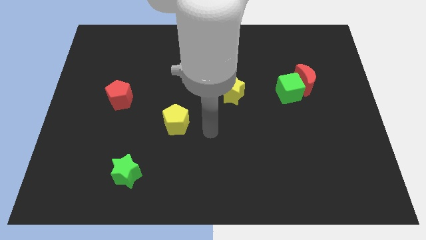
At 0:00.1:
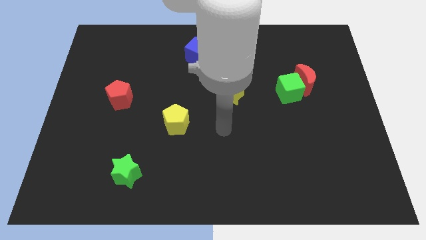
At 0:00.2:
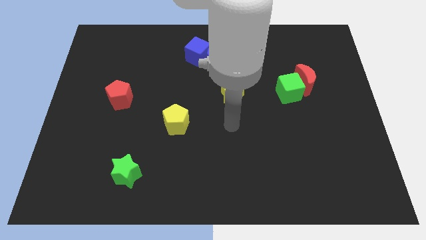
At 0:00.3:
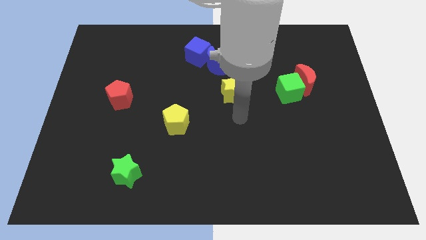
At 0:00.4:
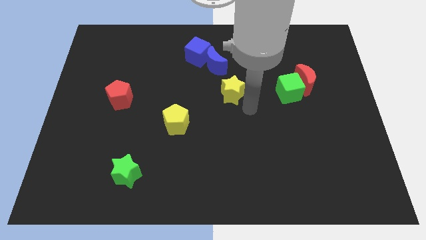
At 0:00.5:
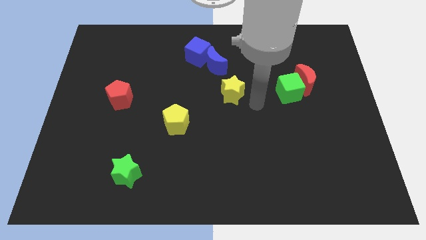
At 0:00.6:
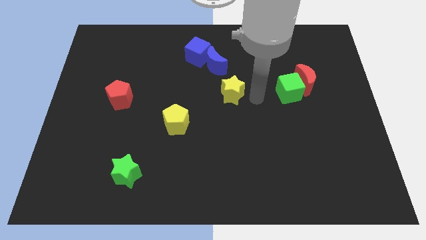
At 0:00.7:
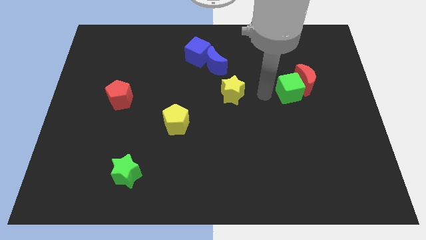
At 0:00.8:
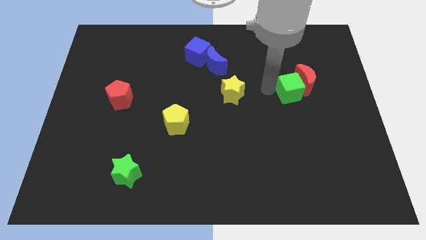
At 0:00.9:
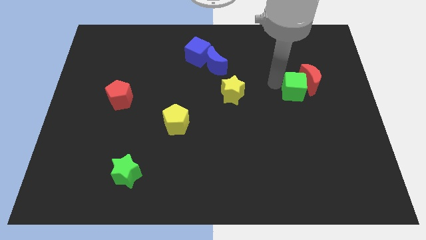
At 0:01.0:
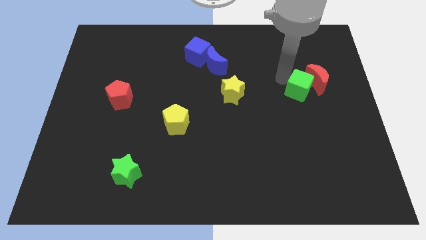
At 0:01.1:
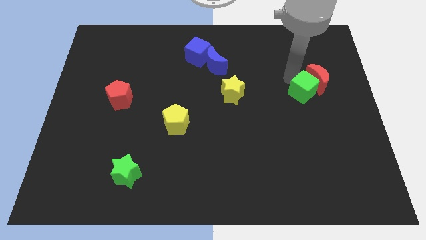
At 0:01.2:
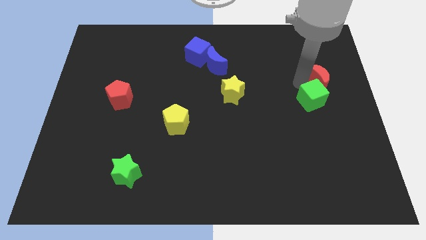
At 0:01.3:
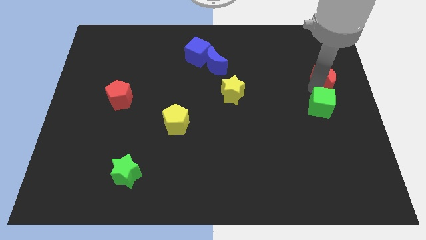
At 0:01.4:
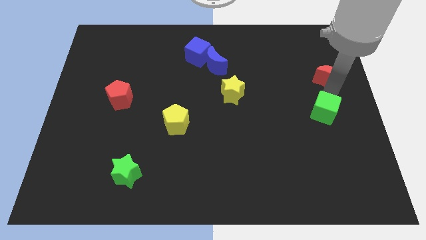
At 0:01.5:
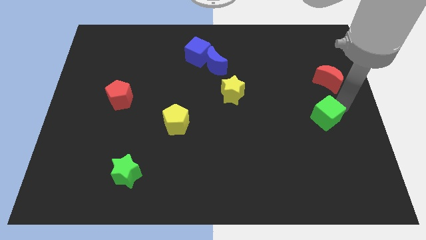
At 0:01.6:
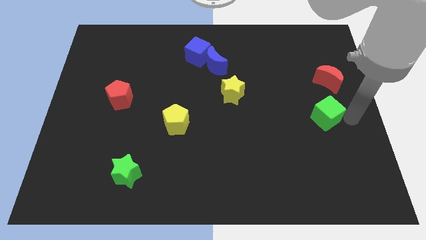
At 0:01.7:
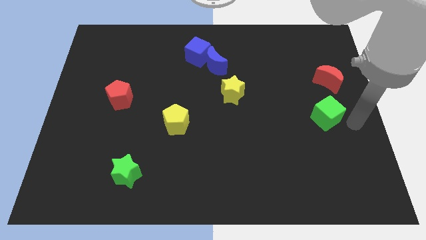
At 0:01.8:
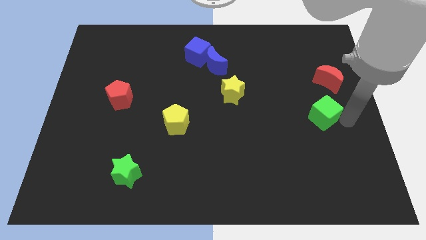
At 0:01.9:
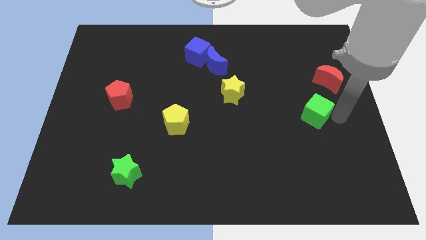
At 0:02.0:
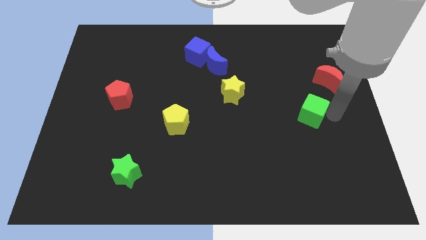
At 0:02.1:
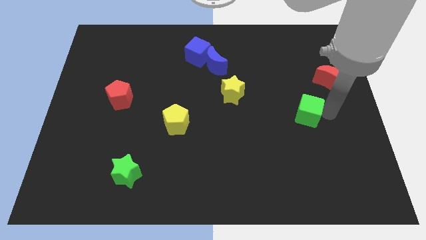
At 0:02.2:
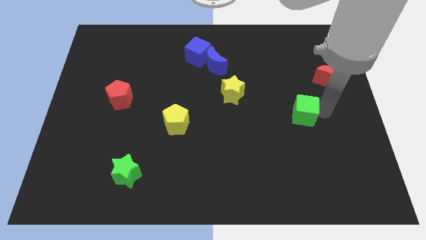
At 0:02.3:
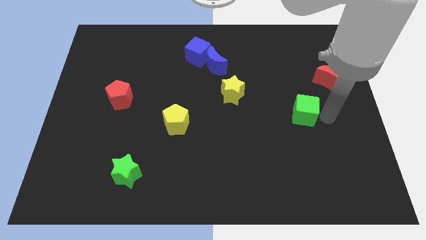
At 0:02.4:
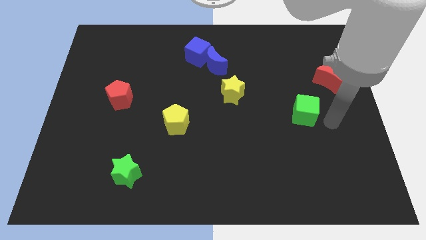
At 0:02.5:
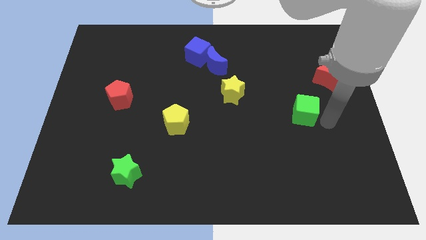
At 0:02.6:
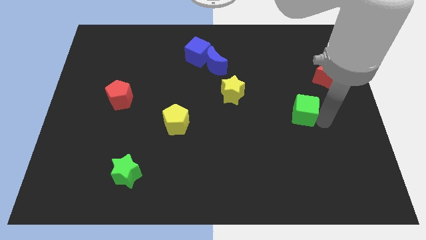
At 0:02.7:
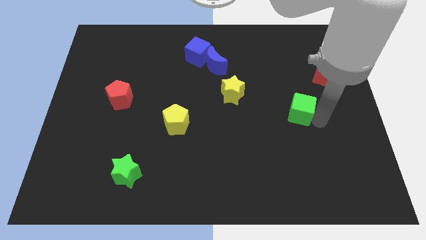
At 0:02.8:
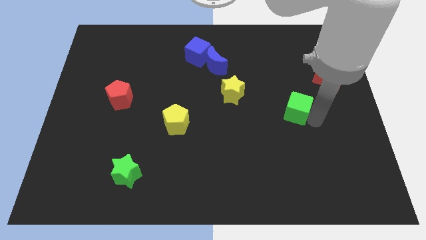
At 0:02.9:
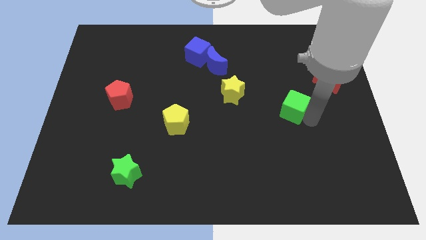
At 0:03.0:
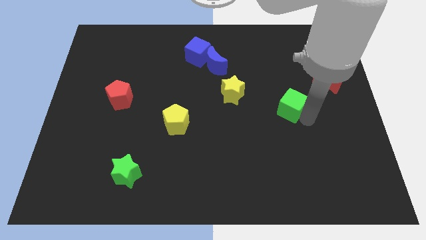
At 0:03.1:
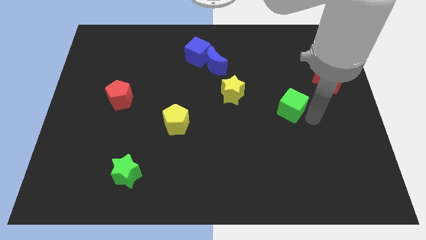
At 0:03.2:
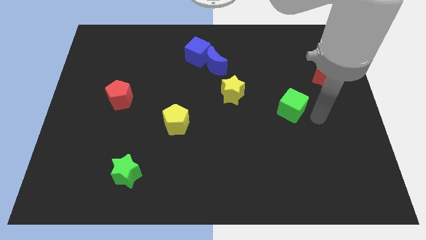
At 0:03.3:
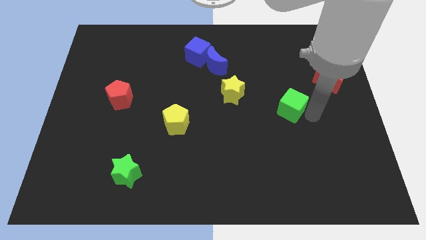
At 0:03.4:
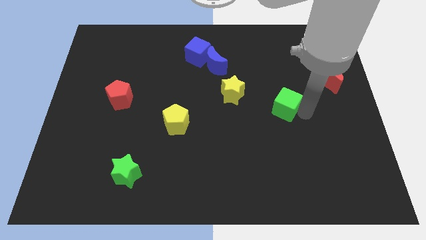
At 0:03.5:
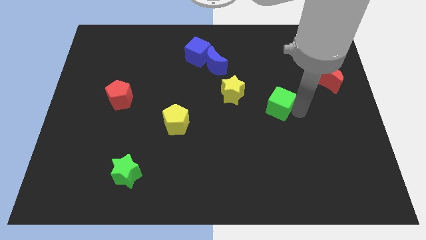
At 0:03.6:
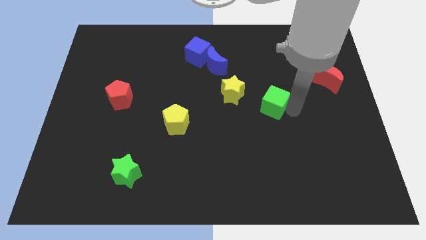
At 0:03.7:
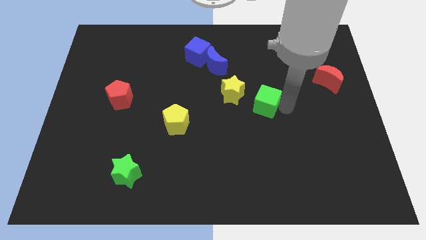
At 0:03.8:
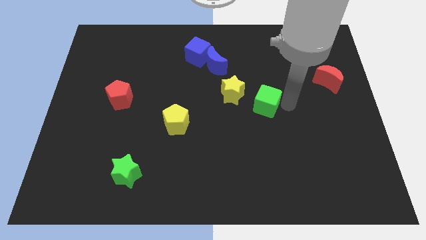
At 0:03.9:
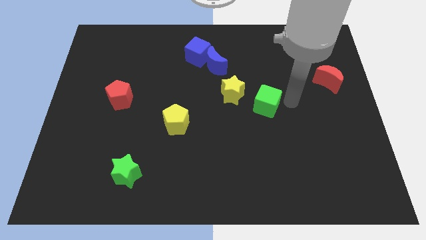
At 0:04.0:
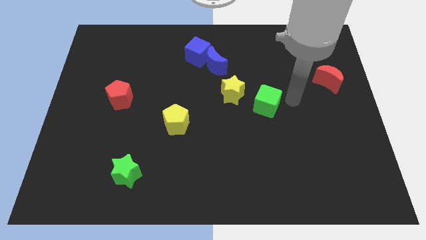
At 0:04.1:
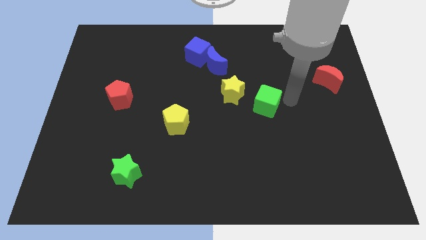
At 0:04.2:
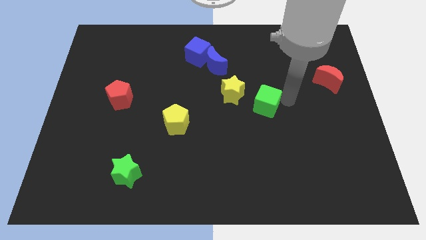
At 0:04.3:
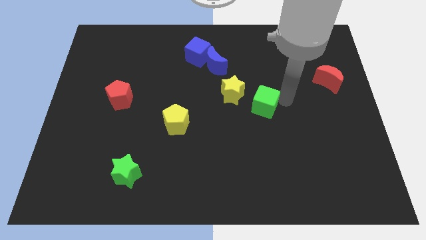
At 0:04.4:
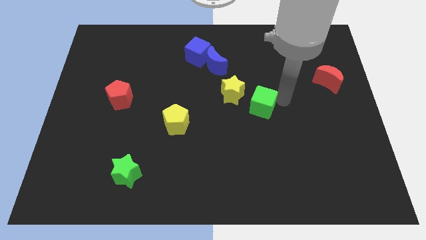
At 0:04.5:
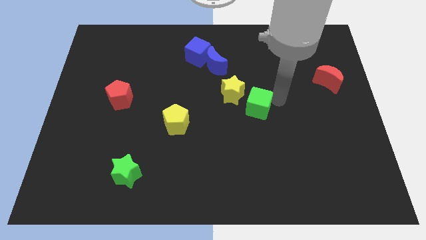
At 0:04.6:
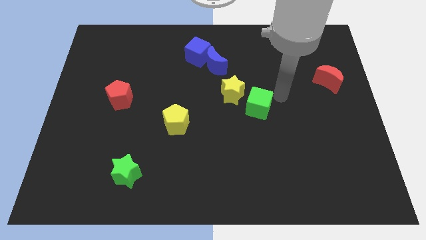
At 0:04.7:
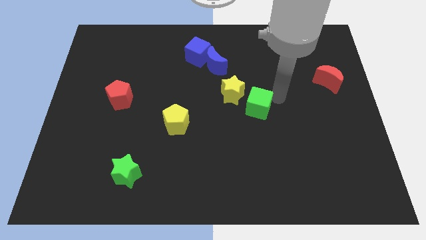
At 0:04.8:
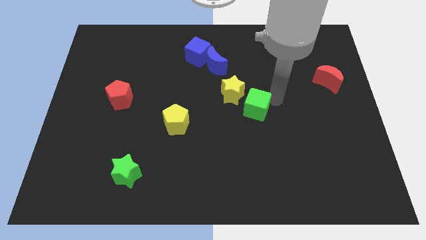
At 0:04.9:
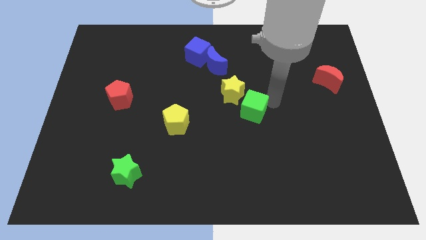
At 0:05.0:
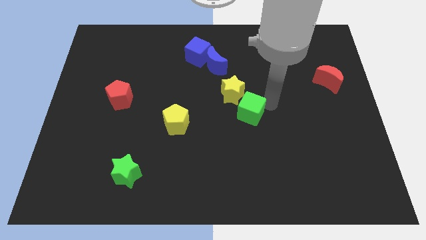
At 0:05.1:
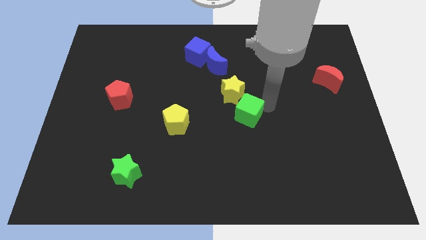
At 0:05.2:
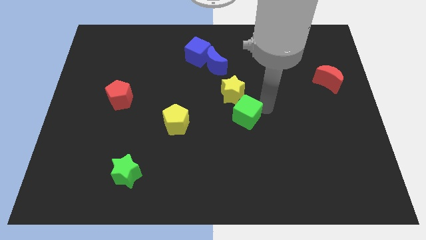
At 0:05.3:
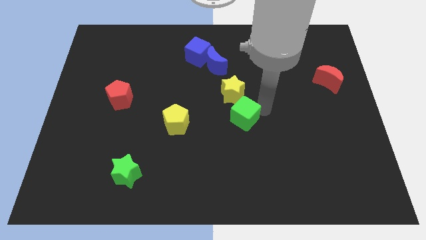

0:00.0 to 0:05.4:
put the green cube to the right side of the yellow pentagon

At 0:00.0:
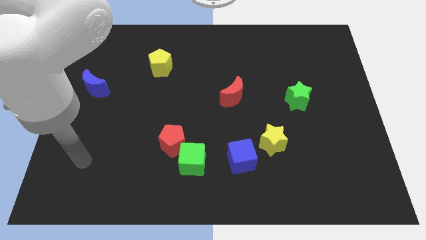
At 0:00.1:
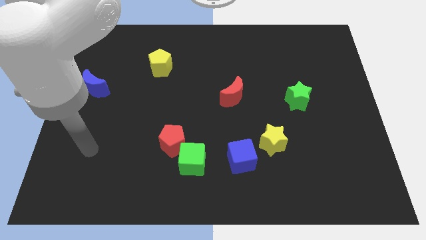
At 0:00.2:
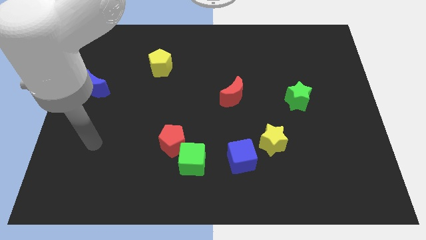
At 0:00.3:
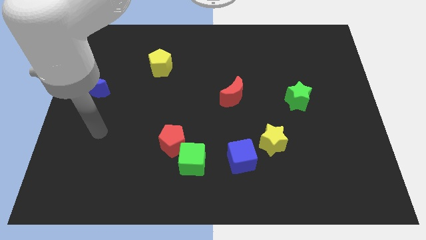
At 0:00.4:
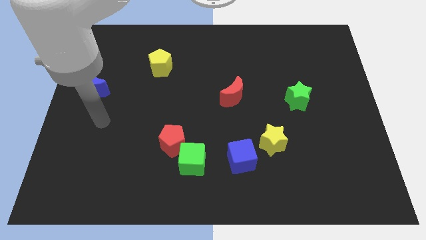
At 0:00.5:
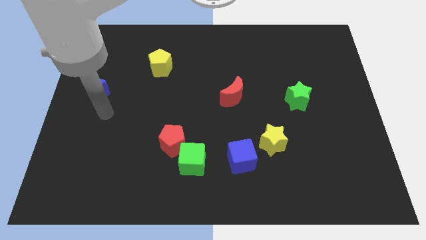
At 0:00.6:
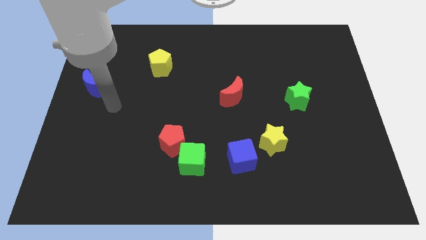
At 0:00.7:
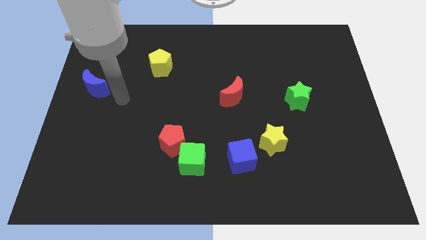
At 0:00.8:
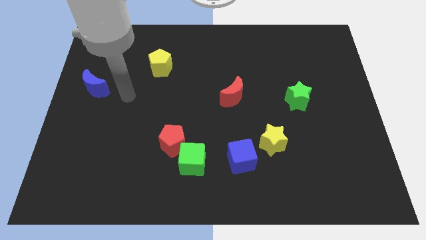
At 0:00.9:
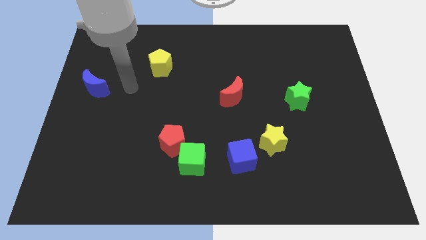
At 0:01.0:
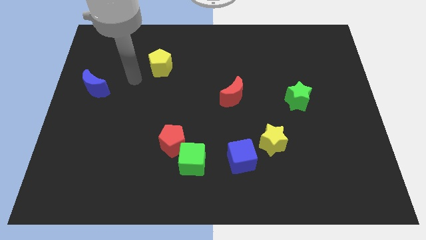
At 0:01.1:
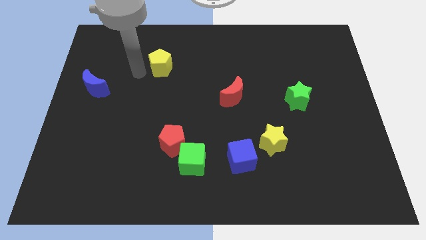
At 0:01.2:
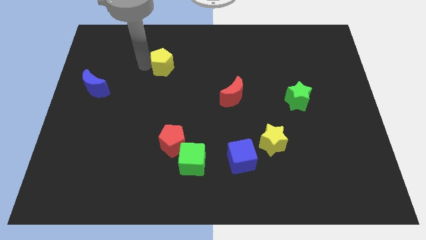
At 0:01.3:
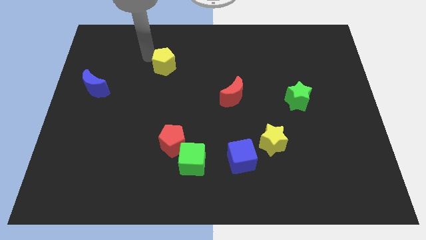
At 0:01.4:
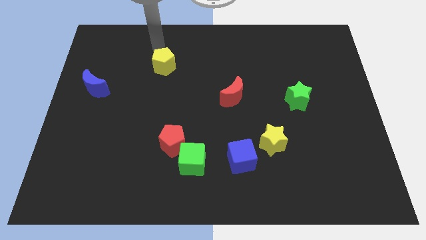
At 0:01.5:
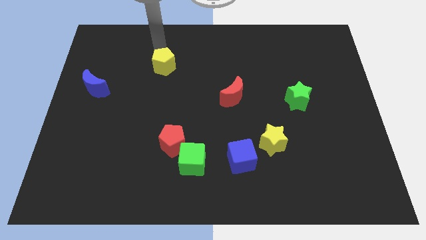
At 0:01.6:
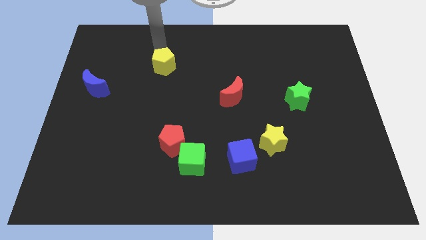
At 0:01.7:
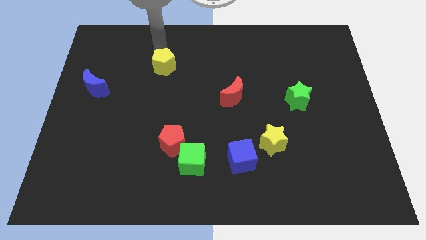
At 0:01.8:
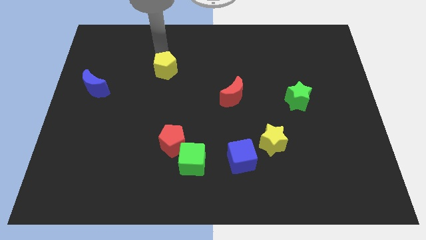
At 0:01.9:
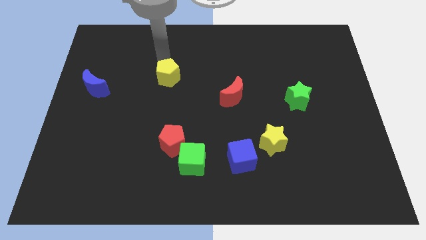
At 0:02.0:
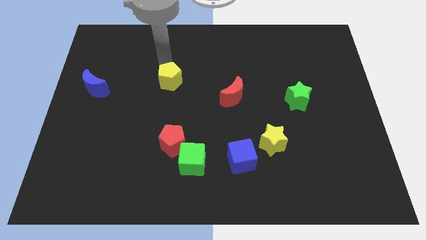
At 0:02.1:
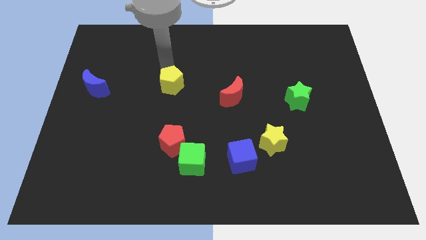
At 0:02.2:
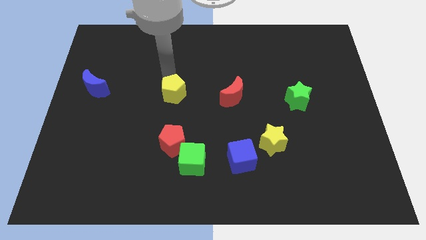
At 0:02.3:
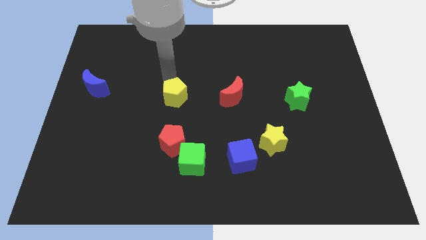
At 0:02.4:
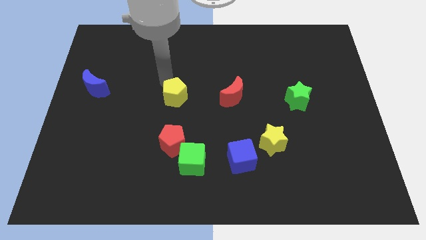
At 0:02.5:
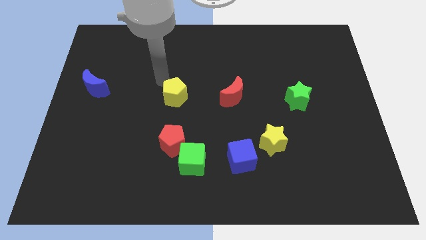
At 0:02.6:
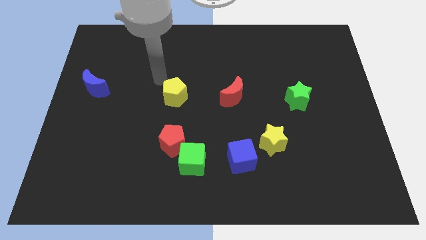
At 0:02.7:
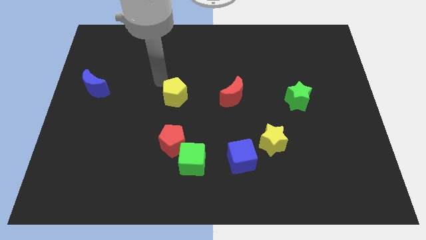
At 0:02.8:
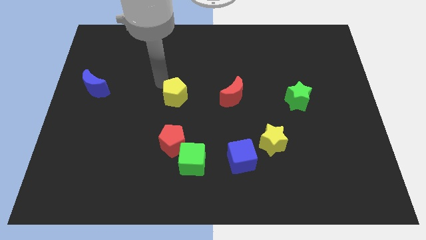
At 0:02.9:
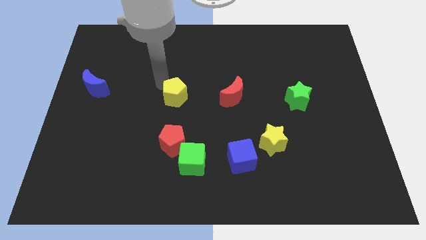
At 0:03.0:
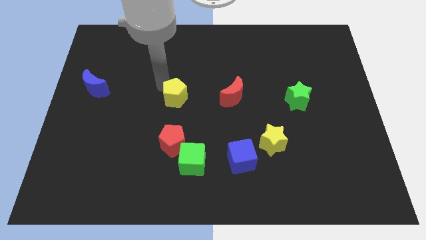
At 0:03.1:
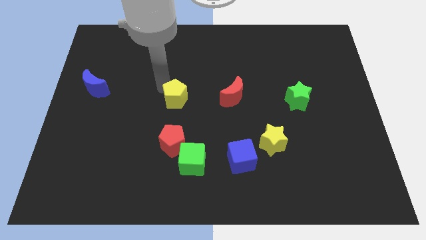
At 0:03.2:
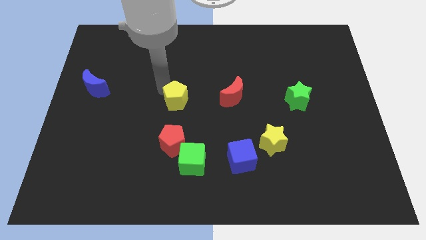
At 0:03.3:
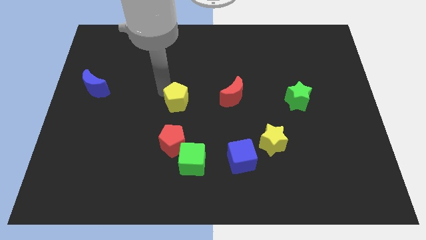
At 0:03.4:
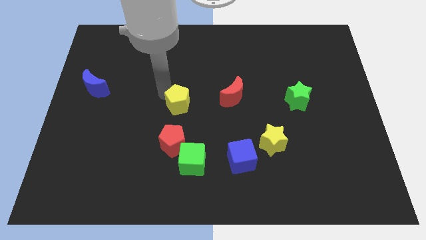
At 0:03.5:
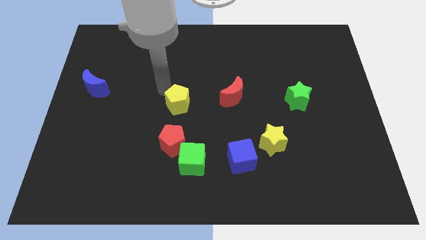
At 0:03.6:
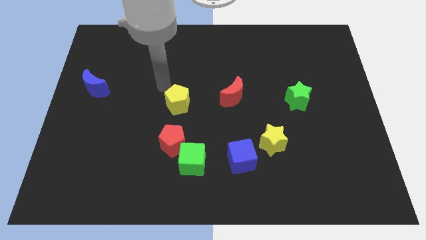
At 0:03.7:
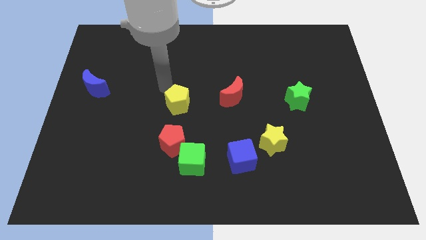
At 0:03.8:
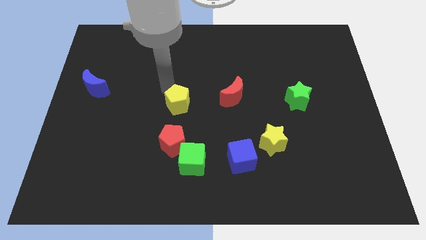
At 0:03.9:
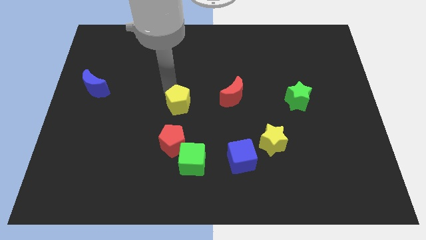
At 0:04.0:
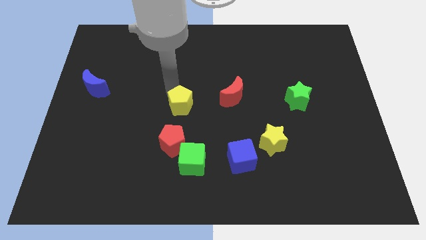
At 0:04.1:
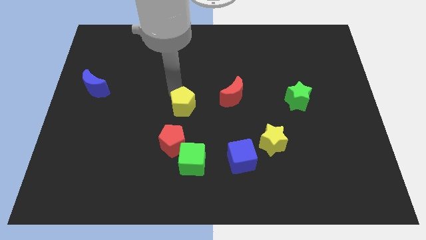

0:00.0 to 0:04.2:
put the yellow pentagon to the top of the green cube
